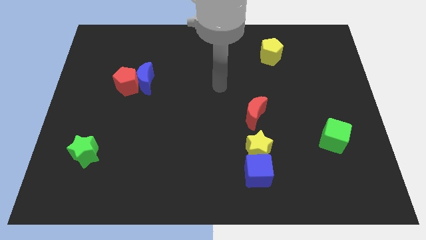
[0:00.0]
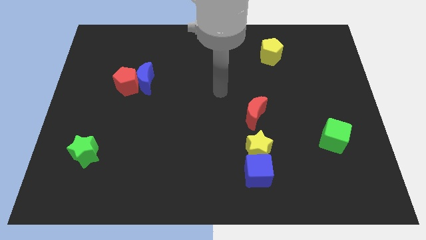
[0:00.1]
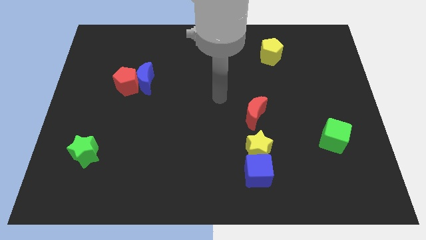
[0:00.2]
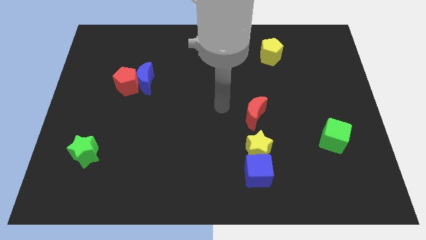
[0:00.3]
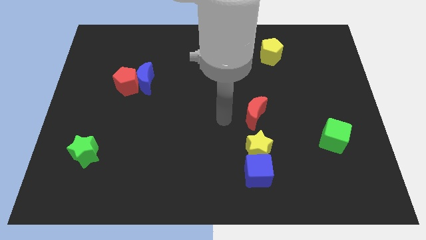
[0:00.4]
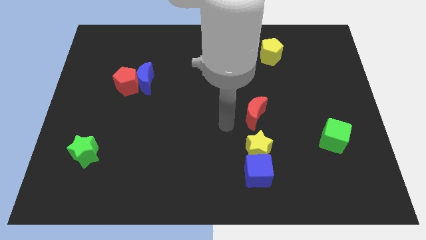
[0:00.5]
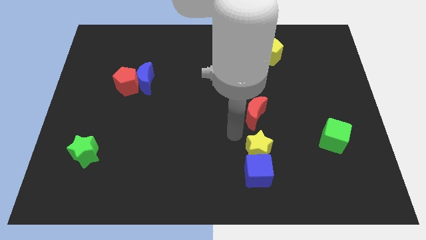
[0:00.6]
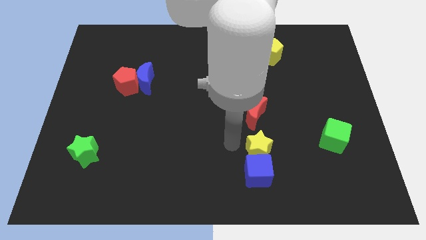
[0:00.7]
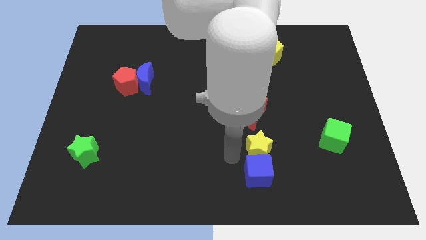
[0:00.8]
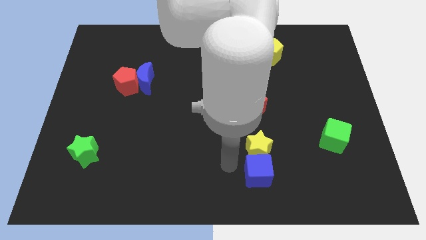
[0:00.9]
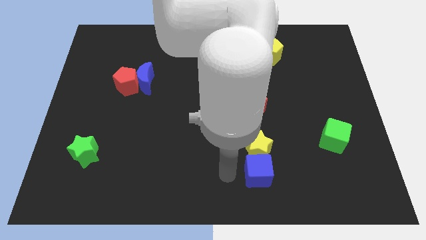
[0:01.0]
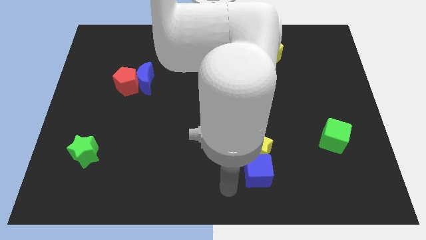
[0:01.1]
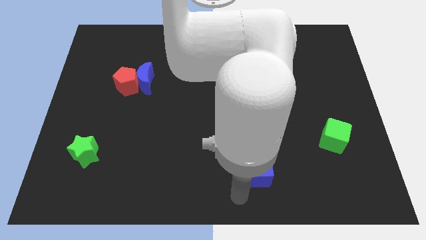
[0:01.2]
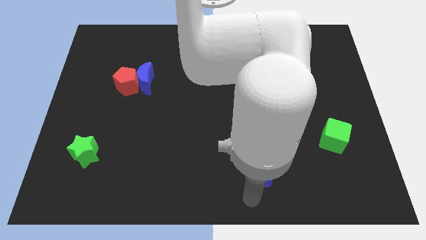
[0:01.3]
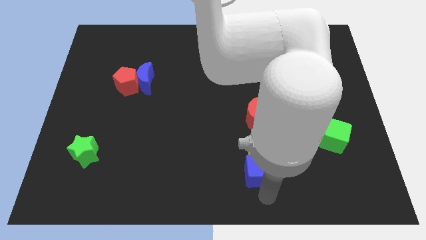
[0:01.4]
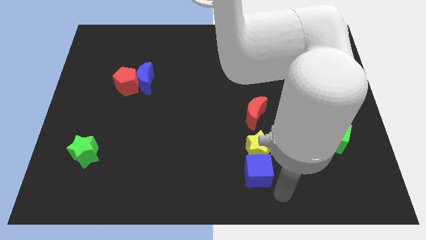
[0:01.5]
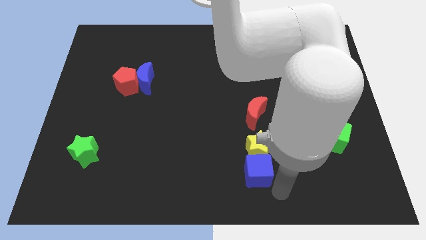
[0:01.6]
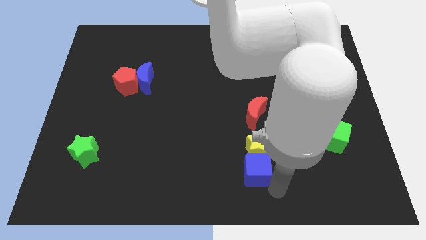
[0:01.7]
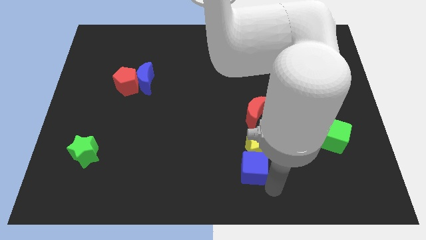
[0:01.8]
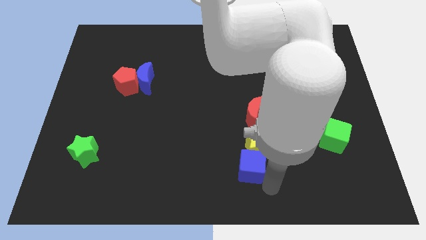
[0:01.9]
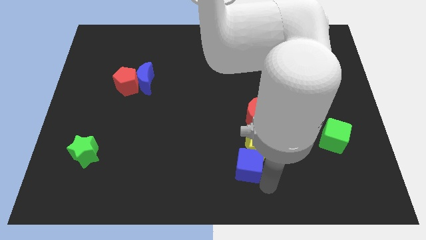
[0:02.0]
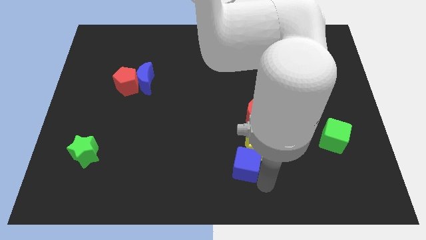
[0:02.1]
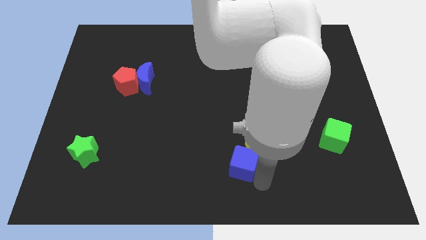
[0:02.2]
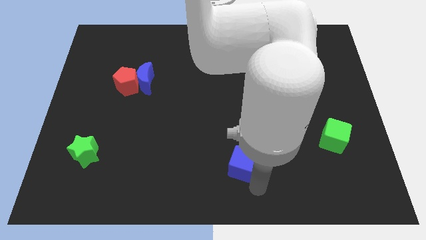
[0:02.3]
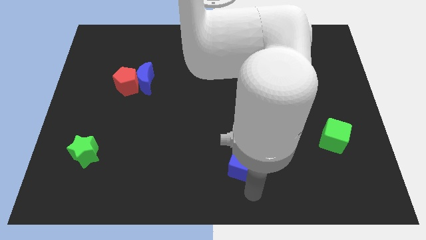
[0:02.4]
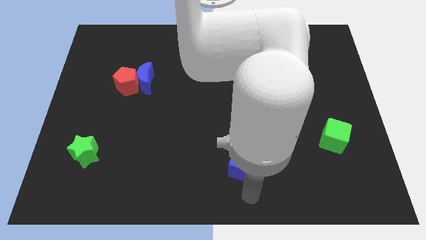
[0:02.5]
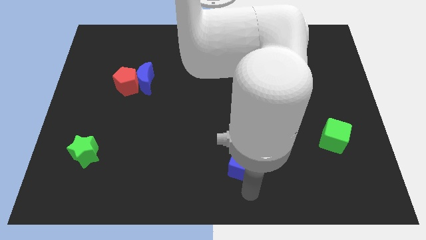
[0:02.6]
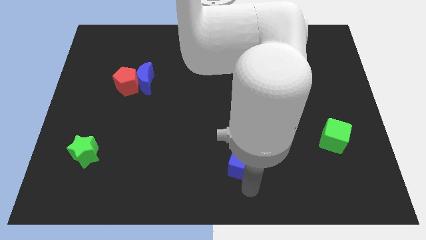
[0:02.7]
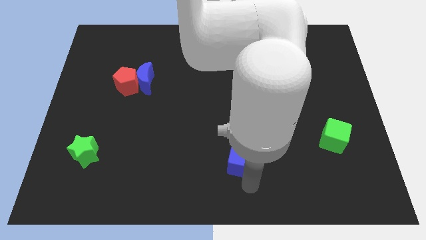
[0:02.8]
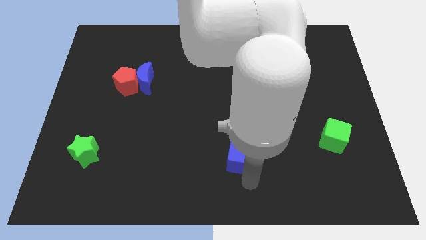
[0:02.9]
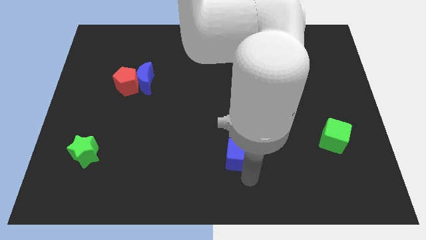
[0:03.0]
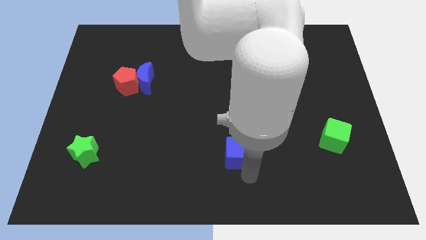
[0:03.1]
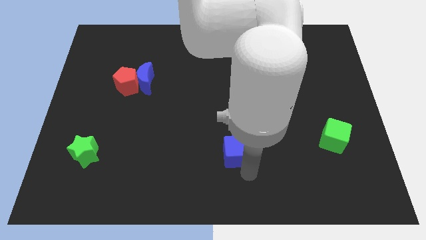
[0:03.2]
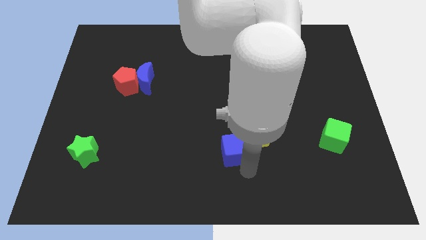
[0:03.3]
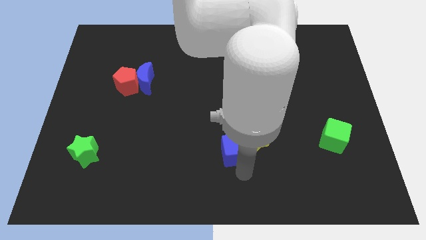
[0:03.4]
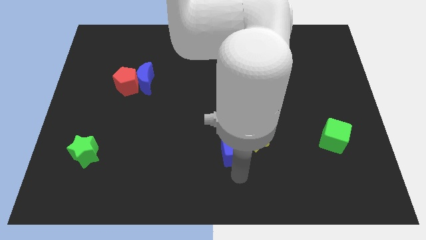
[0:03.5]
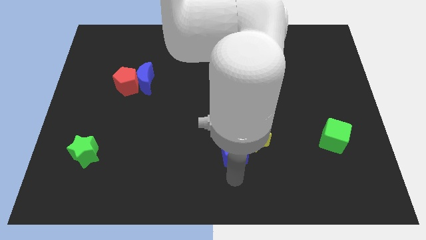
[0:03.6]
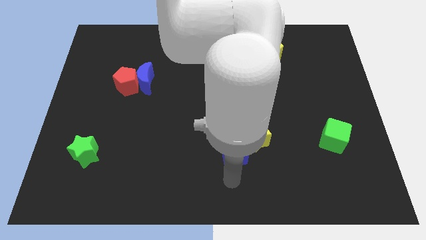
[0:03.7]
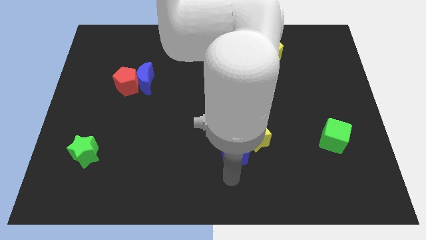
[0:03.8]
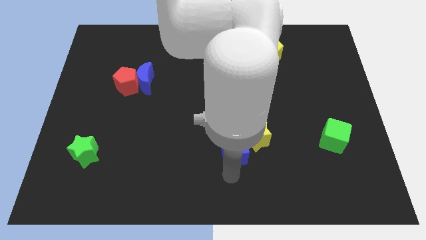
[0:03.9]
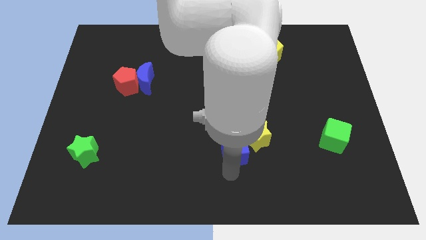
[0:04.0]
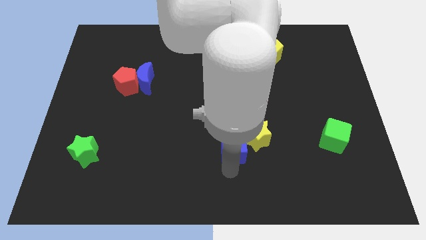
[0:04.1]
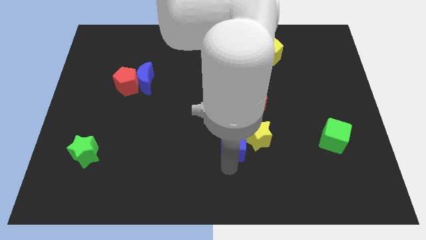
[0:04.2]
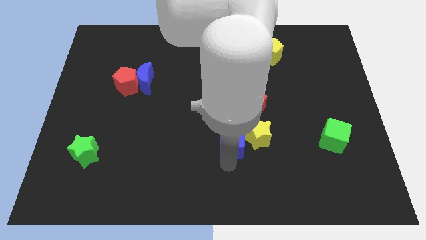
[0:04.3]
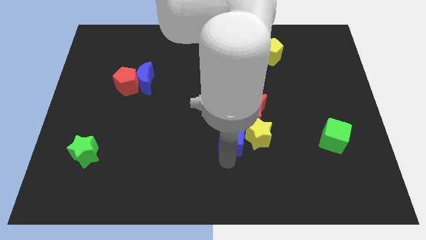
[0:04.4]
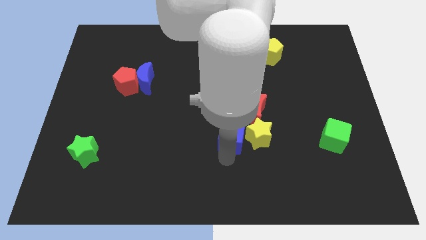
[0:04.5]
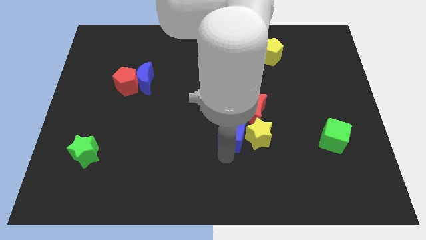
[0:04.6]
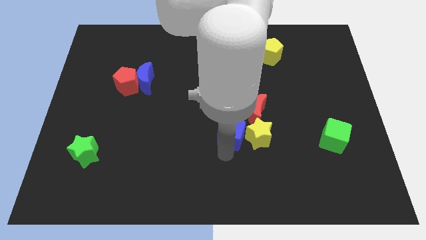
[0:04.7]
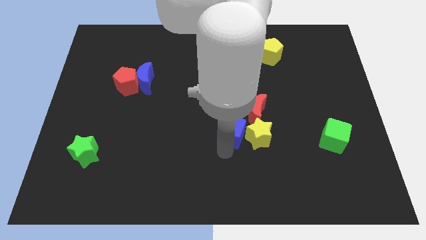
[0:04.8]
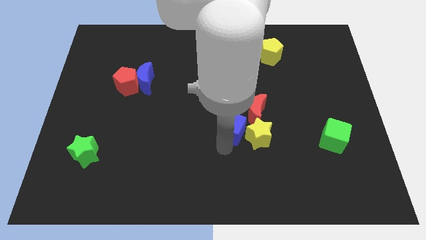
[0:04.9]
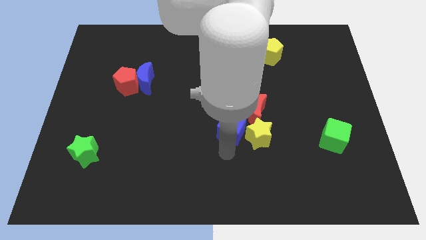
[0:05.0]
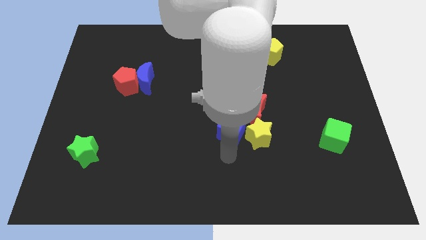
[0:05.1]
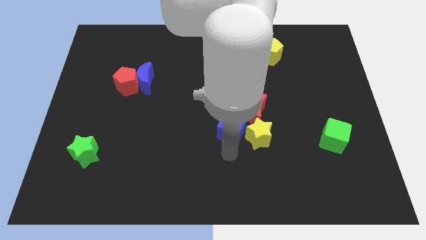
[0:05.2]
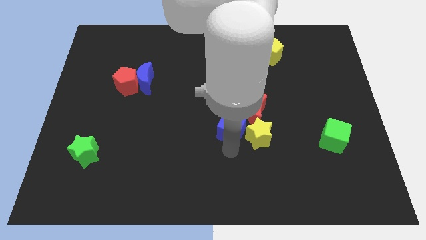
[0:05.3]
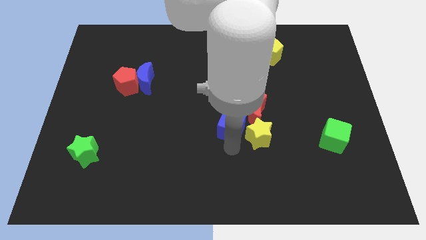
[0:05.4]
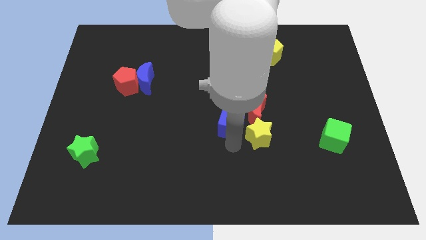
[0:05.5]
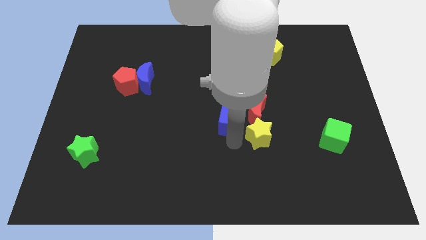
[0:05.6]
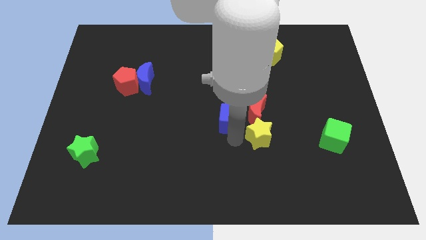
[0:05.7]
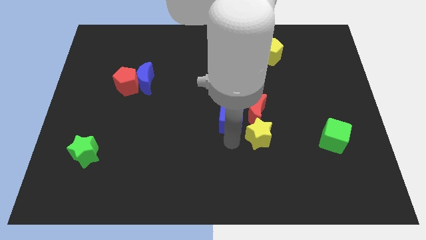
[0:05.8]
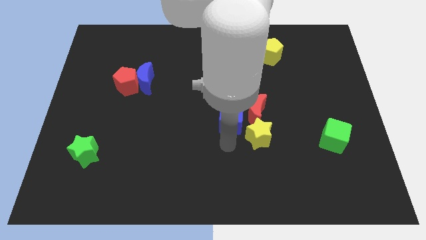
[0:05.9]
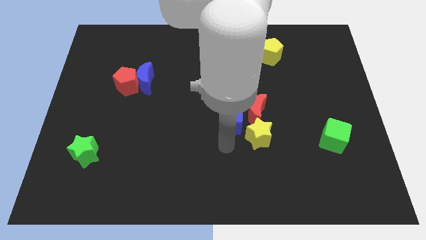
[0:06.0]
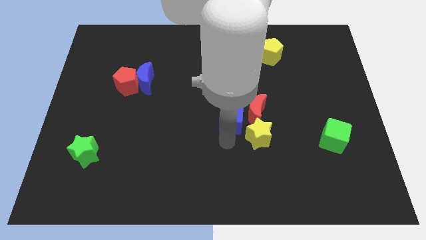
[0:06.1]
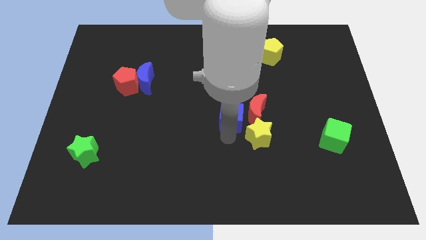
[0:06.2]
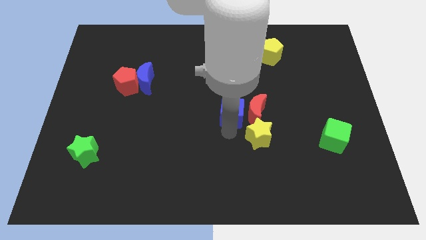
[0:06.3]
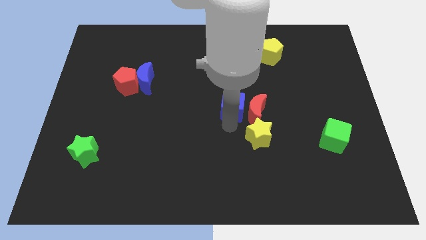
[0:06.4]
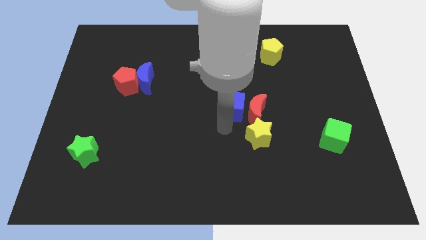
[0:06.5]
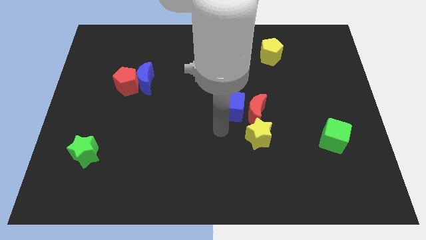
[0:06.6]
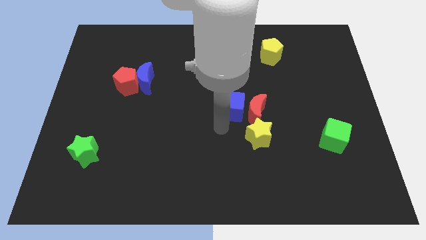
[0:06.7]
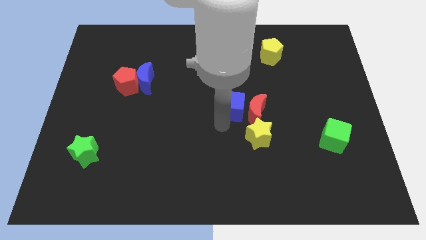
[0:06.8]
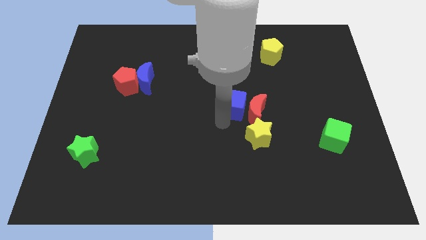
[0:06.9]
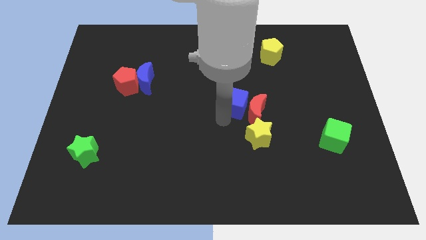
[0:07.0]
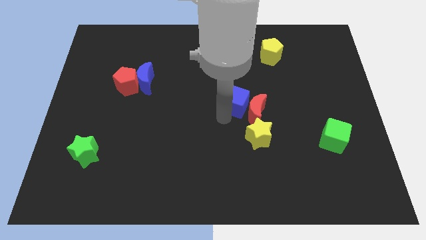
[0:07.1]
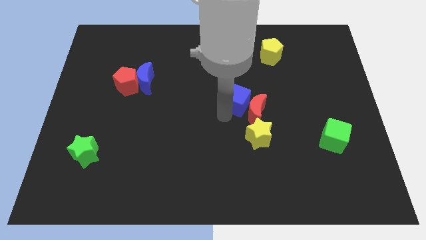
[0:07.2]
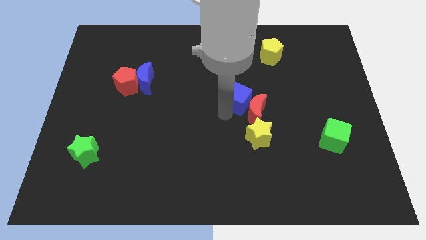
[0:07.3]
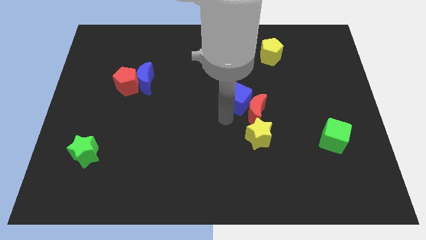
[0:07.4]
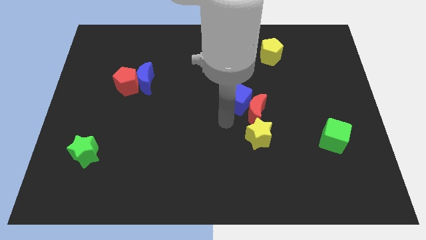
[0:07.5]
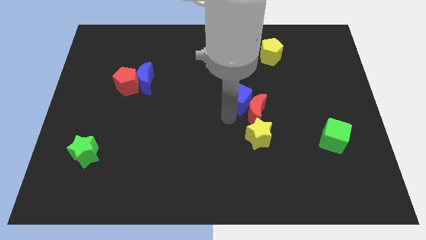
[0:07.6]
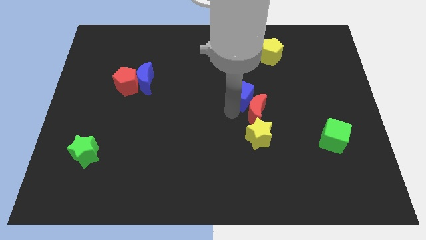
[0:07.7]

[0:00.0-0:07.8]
push the blue cube upwards
